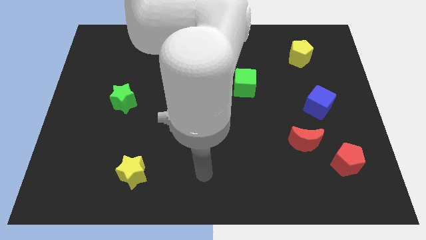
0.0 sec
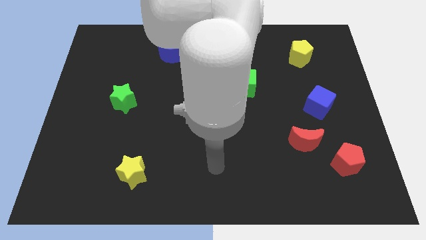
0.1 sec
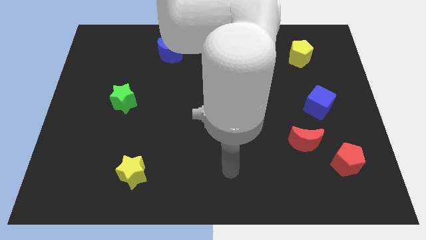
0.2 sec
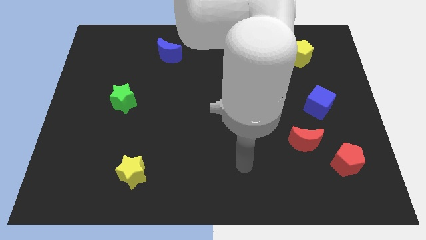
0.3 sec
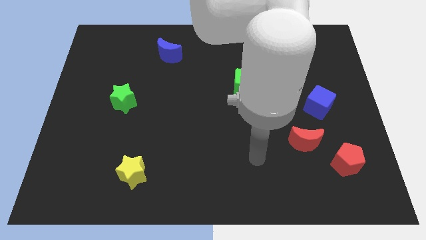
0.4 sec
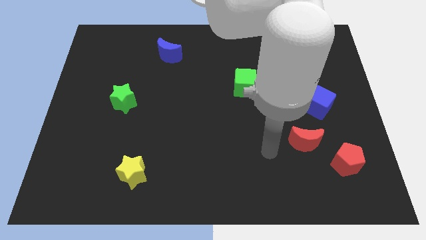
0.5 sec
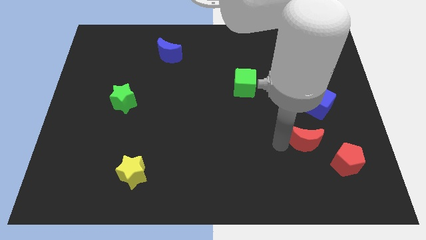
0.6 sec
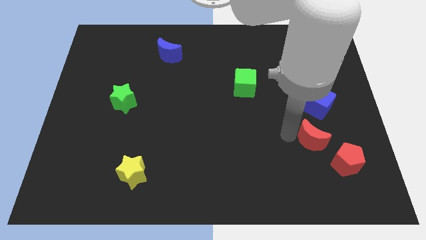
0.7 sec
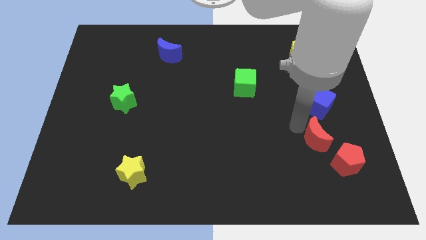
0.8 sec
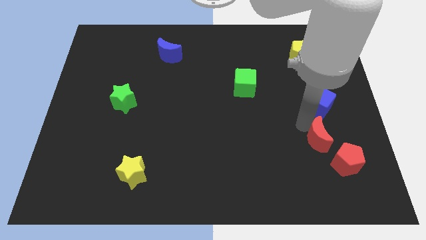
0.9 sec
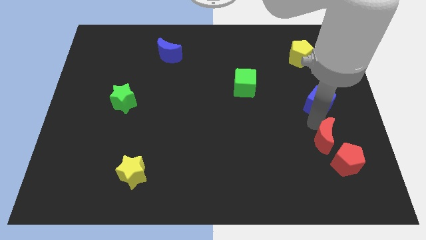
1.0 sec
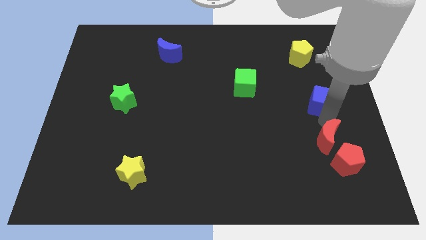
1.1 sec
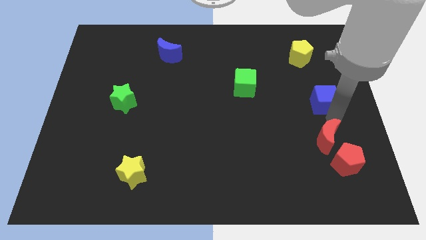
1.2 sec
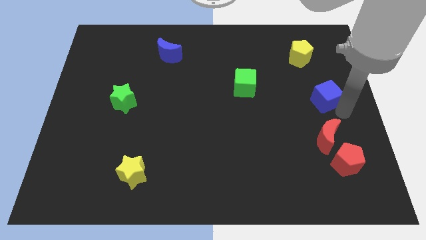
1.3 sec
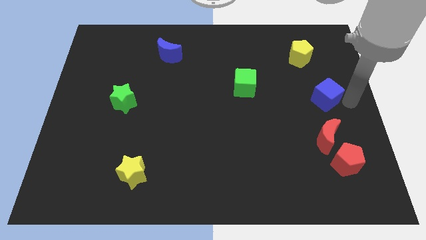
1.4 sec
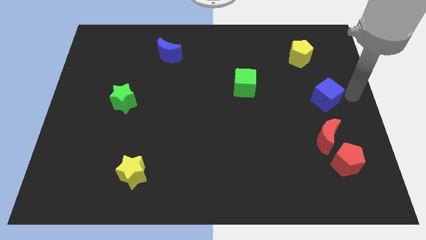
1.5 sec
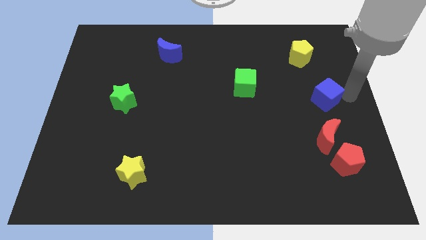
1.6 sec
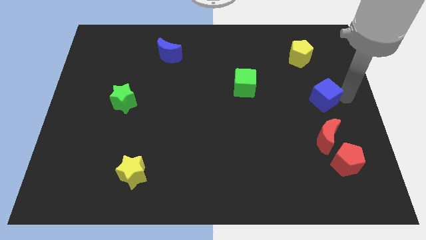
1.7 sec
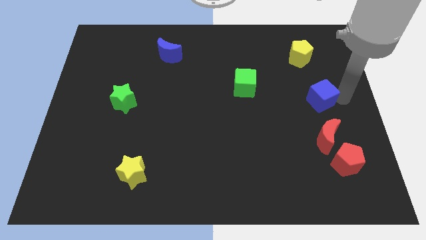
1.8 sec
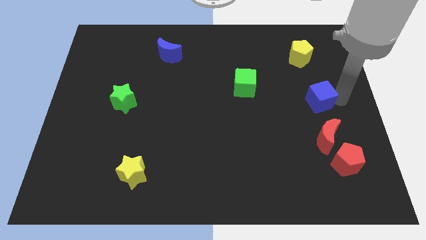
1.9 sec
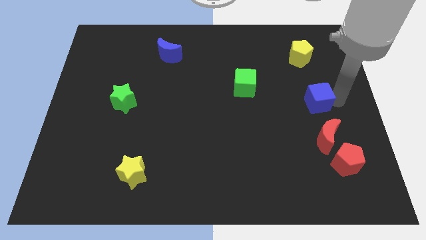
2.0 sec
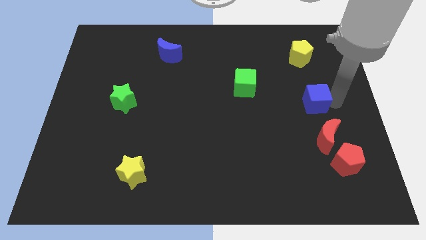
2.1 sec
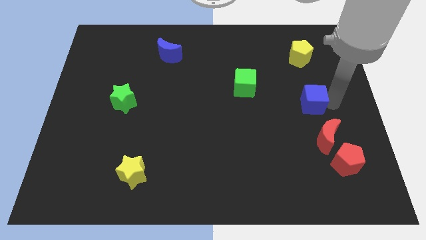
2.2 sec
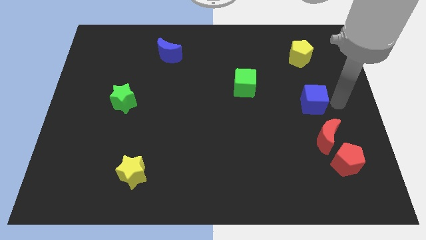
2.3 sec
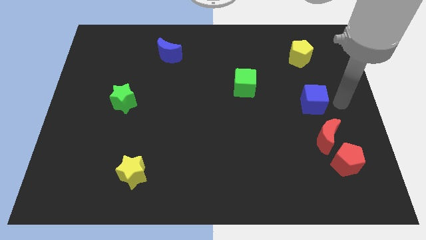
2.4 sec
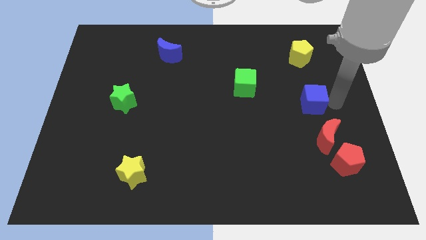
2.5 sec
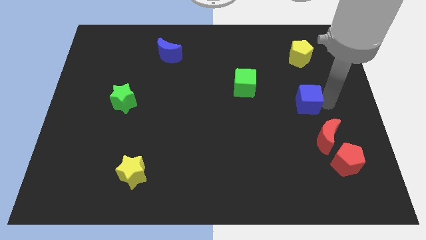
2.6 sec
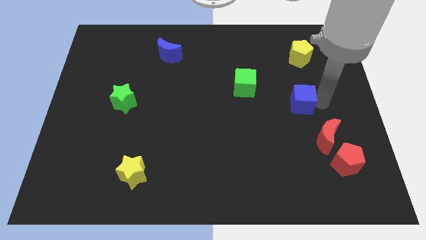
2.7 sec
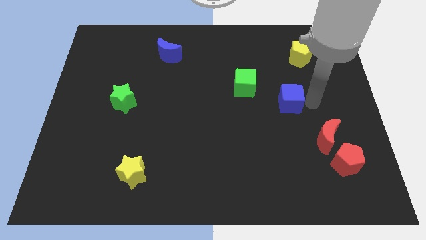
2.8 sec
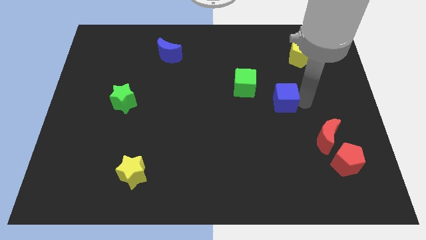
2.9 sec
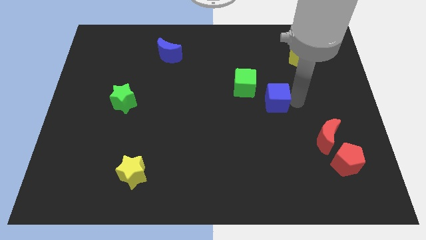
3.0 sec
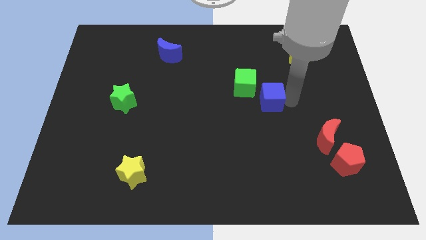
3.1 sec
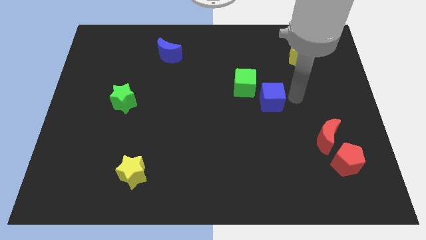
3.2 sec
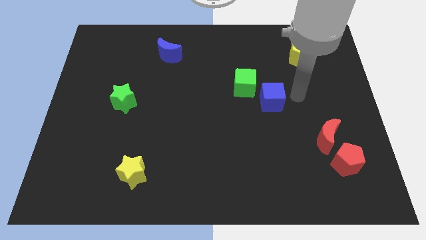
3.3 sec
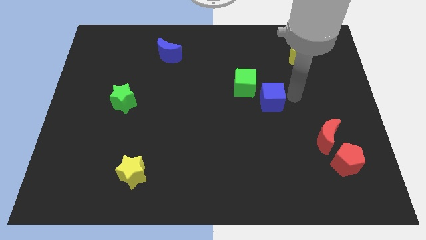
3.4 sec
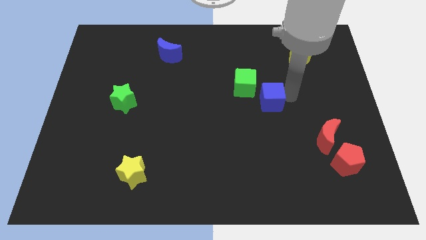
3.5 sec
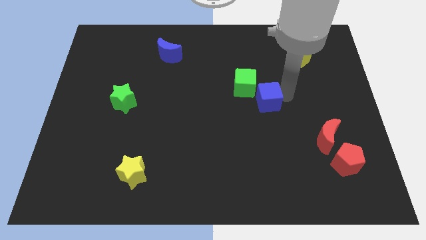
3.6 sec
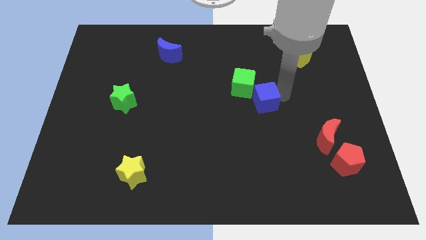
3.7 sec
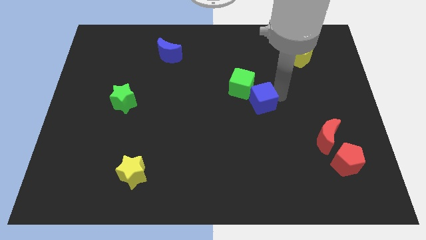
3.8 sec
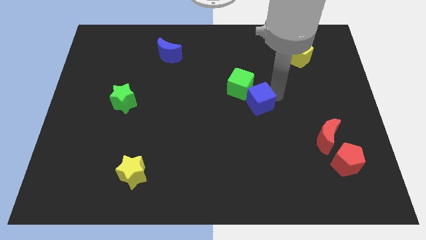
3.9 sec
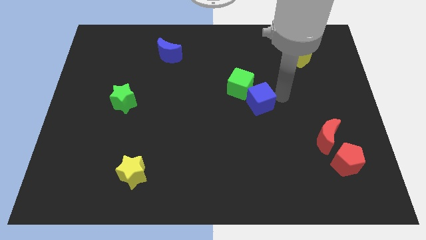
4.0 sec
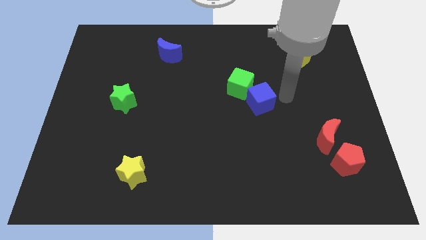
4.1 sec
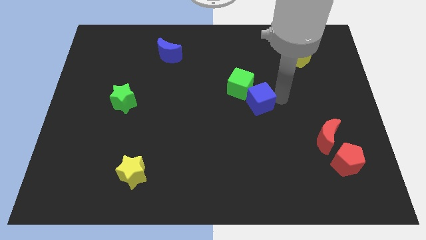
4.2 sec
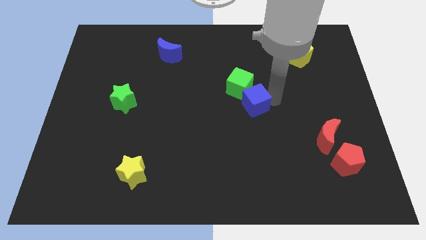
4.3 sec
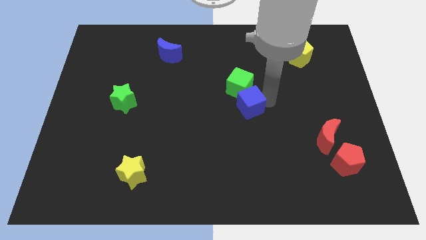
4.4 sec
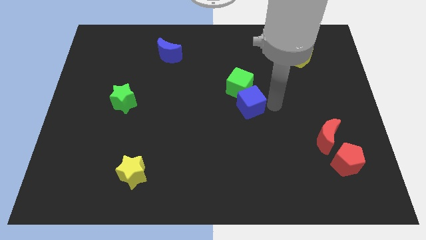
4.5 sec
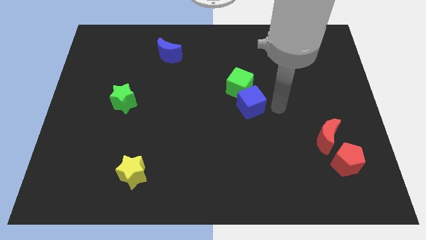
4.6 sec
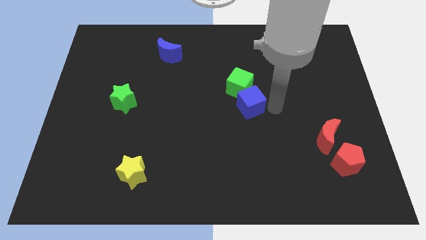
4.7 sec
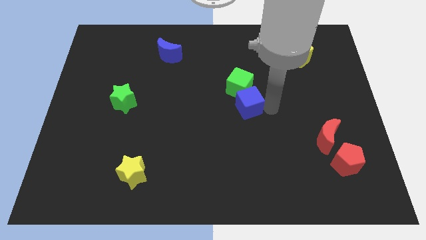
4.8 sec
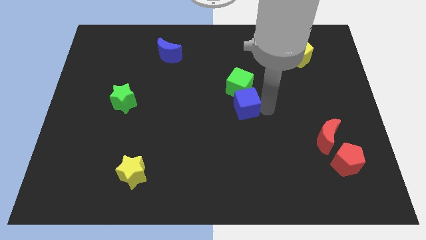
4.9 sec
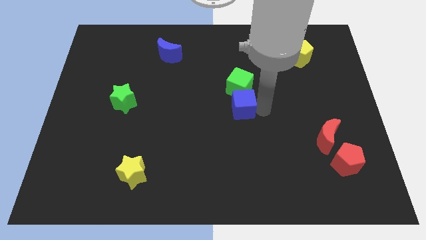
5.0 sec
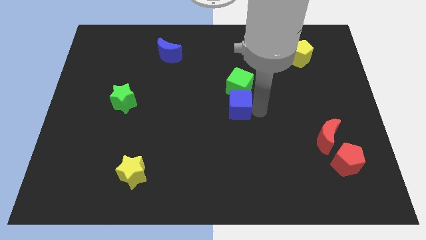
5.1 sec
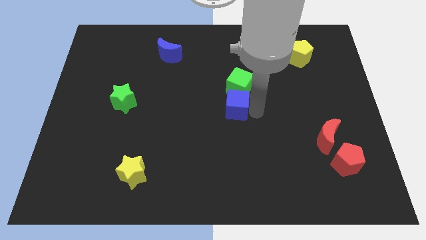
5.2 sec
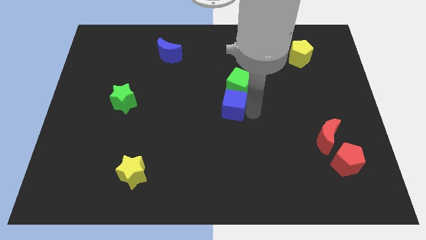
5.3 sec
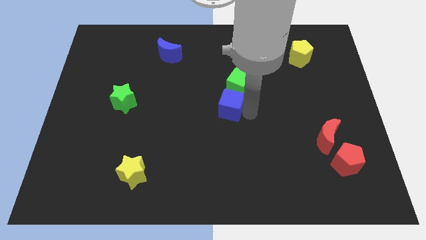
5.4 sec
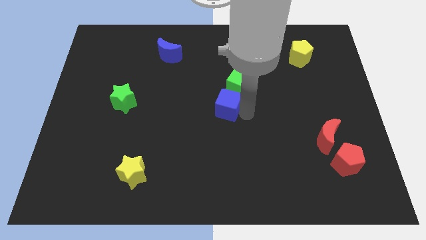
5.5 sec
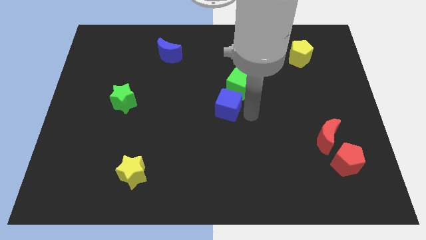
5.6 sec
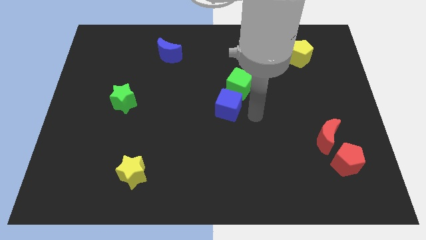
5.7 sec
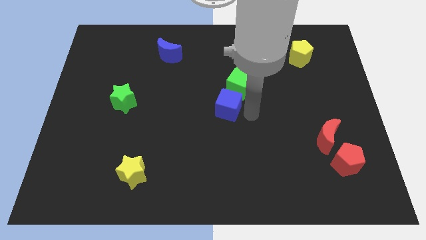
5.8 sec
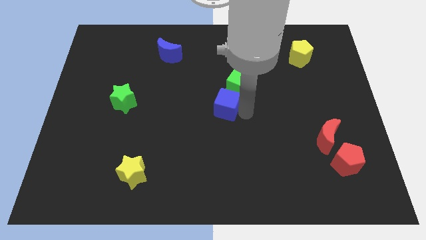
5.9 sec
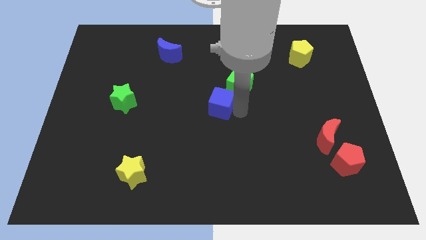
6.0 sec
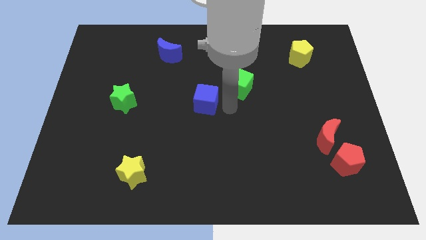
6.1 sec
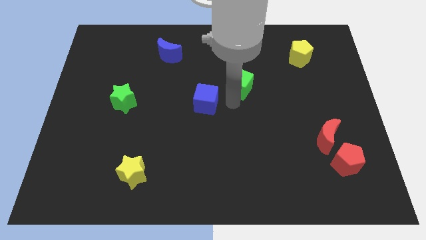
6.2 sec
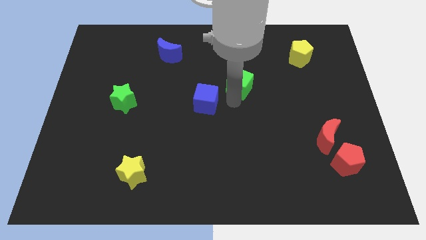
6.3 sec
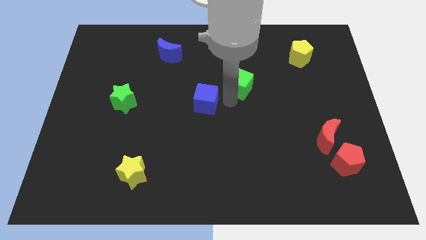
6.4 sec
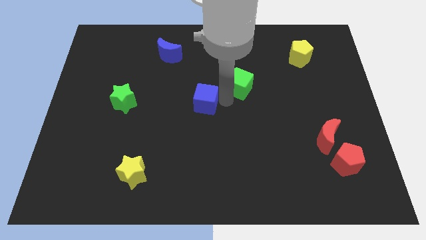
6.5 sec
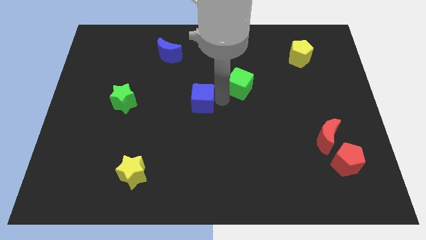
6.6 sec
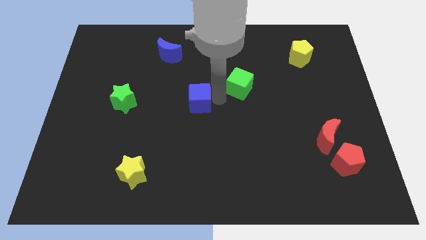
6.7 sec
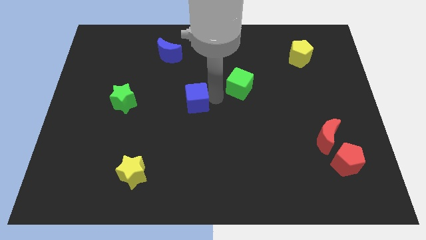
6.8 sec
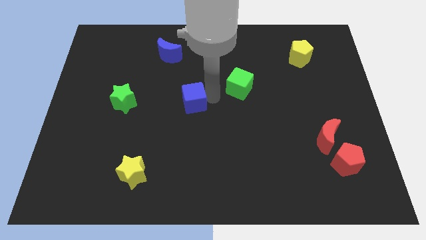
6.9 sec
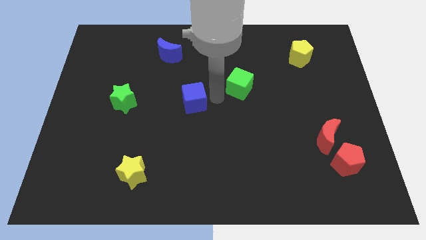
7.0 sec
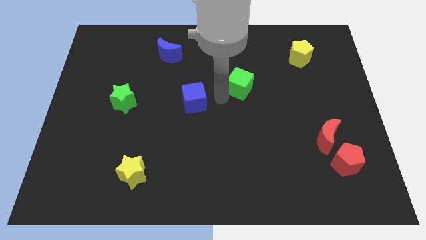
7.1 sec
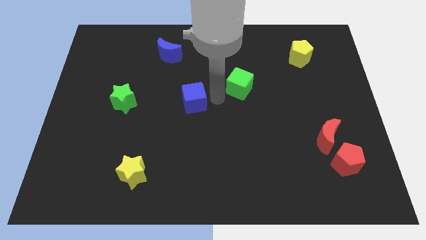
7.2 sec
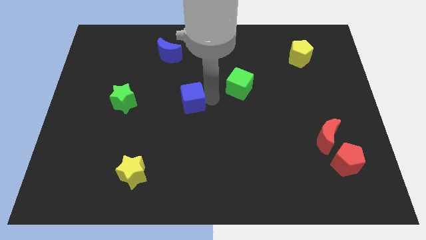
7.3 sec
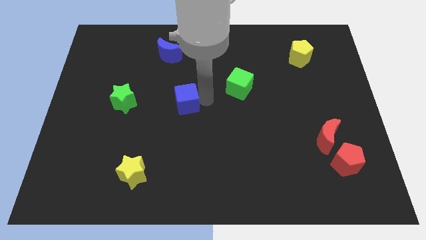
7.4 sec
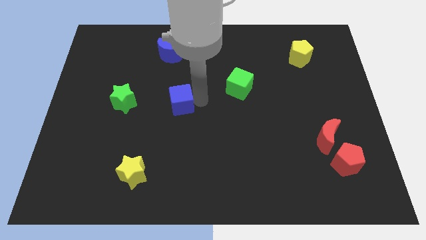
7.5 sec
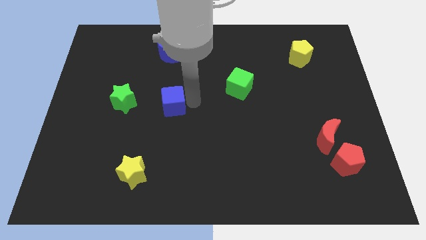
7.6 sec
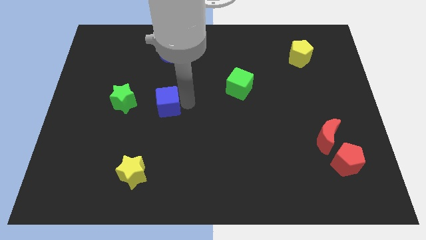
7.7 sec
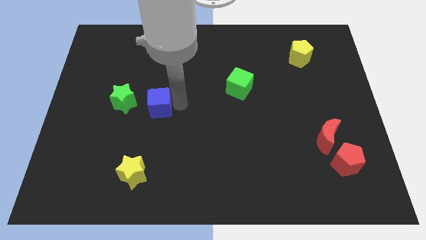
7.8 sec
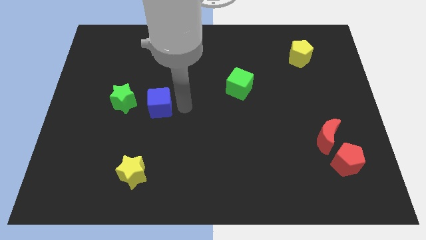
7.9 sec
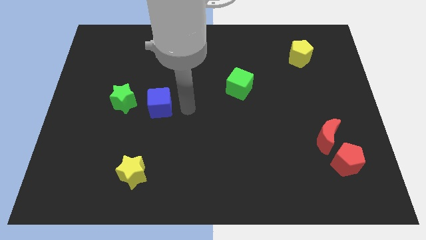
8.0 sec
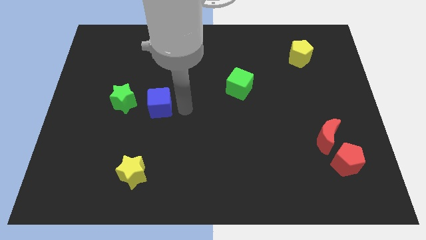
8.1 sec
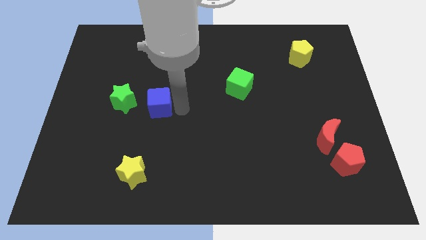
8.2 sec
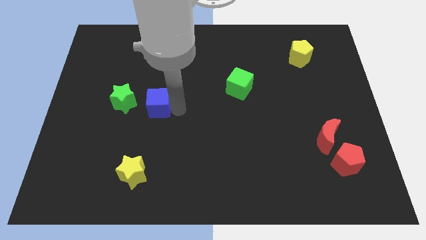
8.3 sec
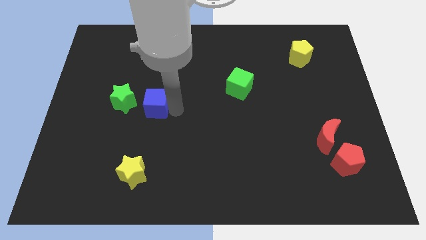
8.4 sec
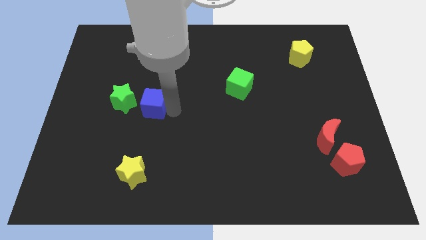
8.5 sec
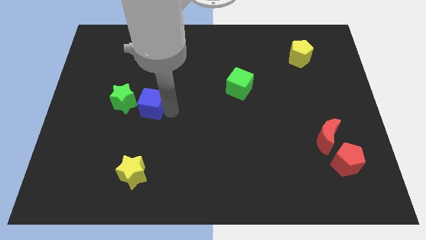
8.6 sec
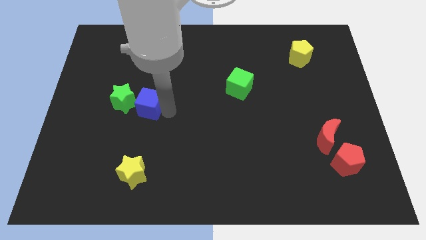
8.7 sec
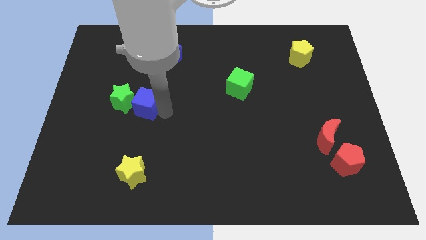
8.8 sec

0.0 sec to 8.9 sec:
move the blue cube towards the green star
